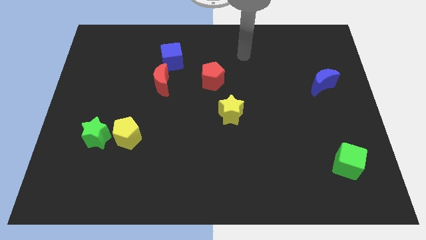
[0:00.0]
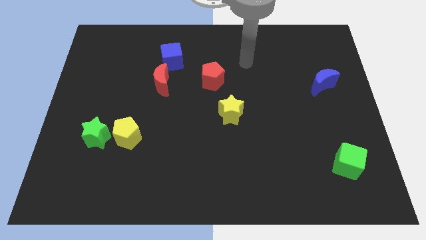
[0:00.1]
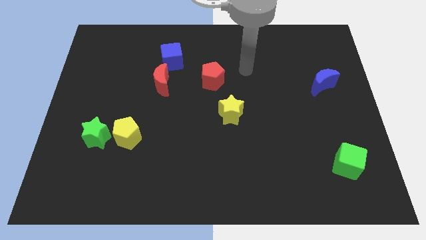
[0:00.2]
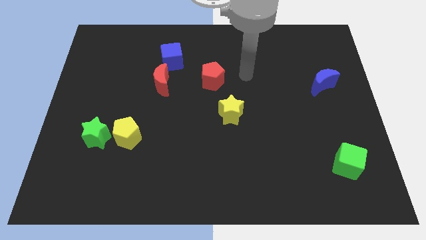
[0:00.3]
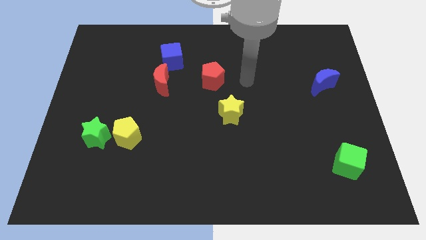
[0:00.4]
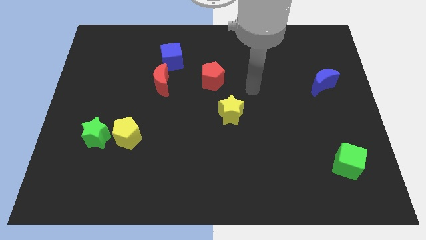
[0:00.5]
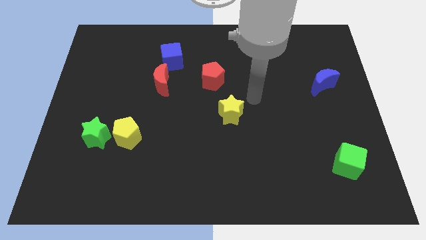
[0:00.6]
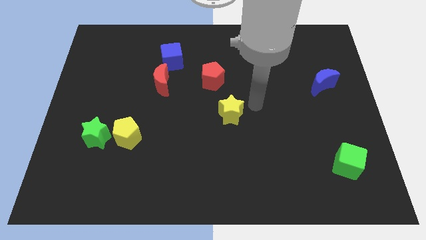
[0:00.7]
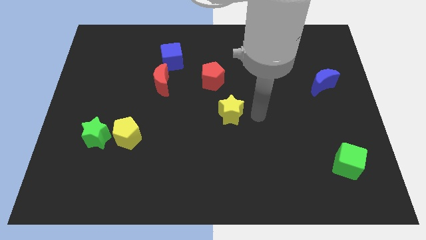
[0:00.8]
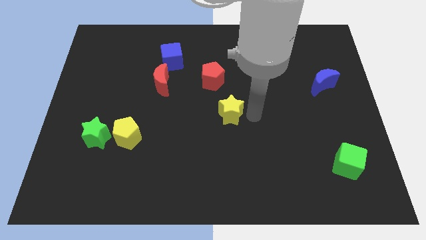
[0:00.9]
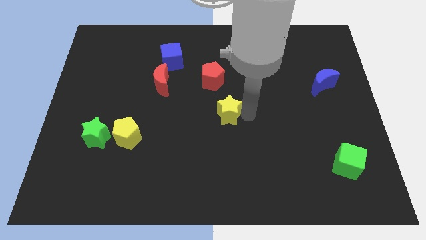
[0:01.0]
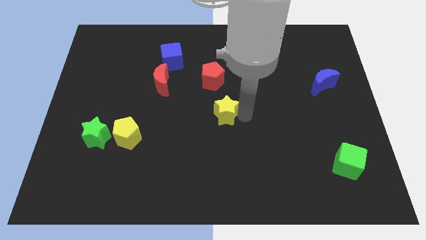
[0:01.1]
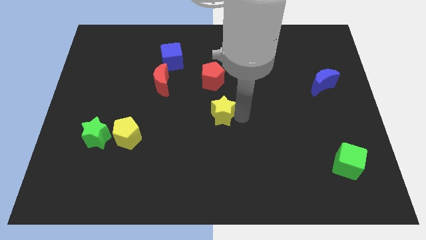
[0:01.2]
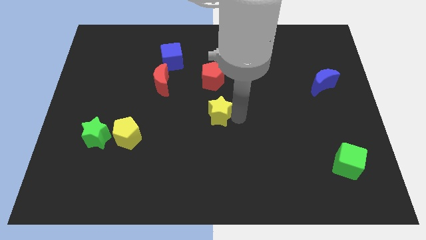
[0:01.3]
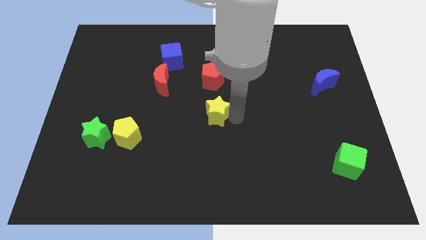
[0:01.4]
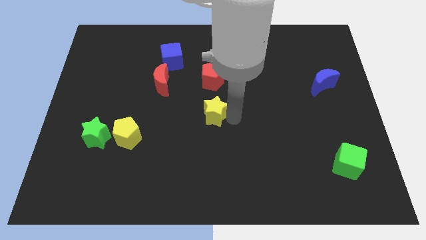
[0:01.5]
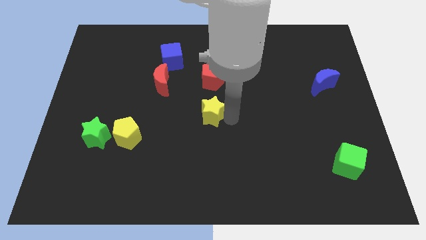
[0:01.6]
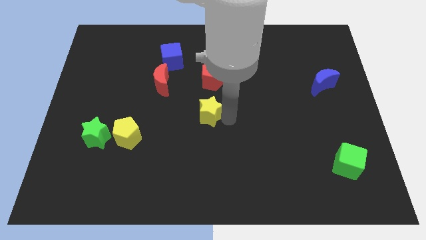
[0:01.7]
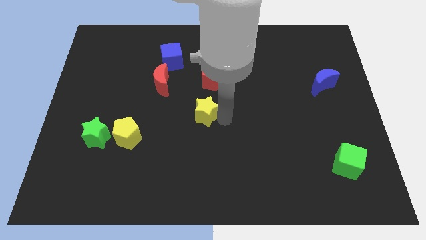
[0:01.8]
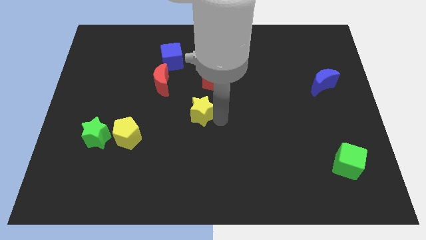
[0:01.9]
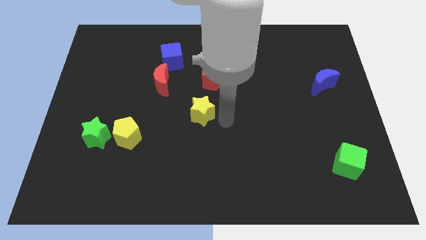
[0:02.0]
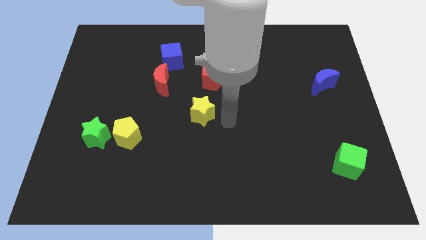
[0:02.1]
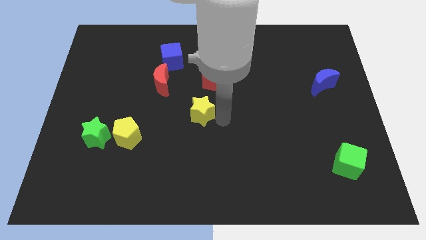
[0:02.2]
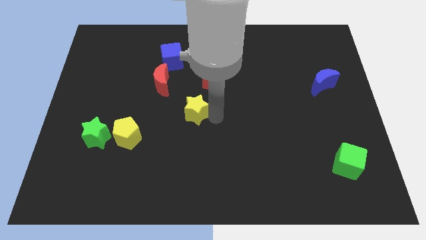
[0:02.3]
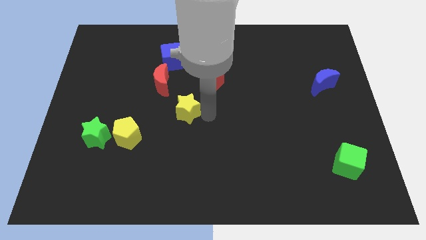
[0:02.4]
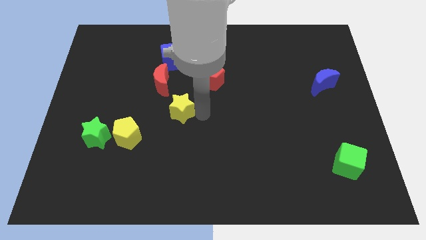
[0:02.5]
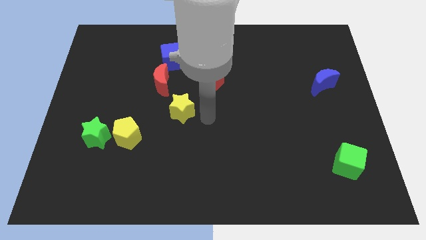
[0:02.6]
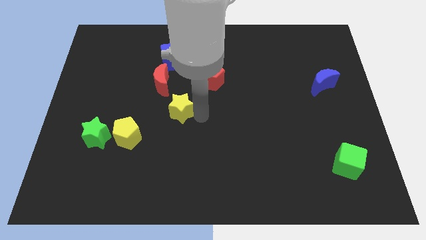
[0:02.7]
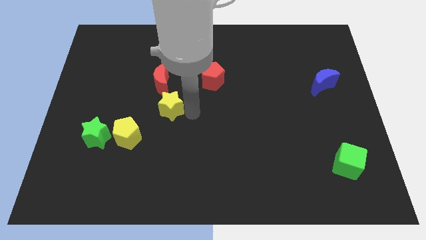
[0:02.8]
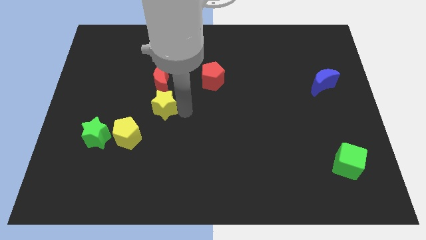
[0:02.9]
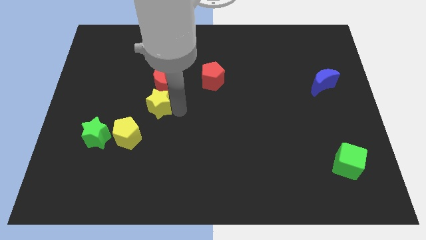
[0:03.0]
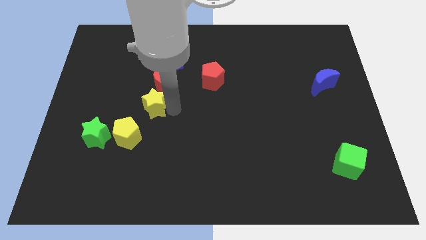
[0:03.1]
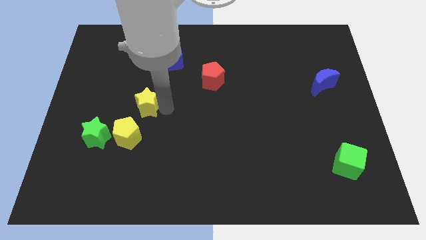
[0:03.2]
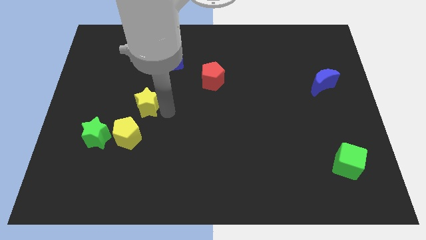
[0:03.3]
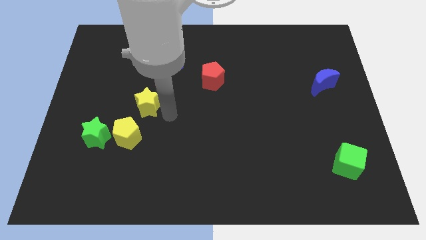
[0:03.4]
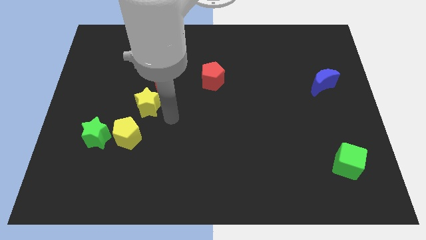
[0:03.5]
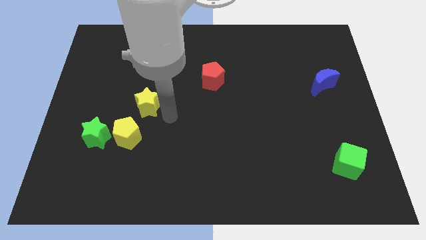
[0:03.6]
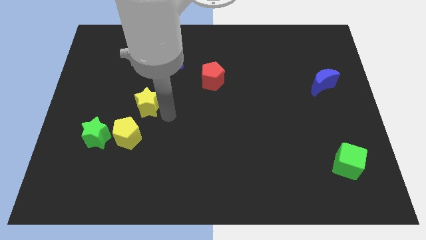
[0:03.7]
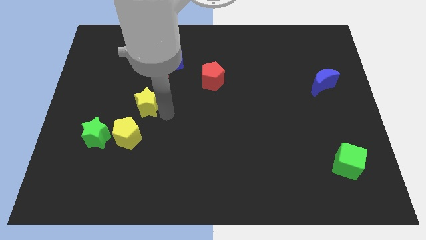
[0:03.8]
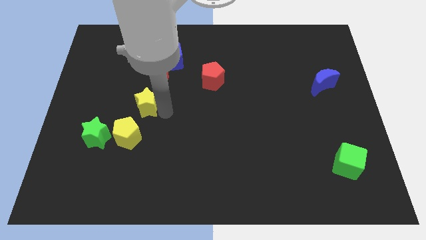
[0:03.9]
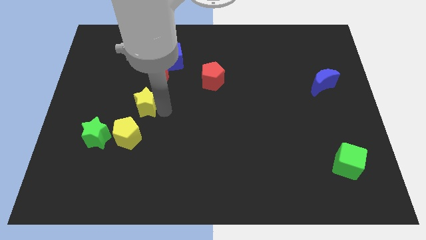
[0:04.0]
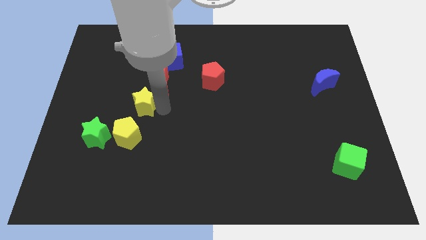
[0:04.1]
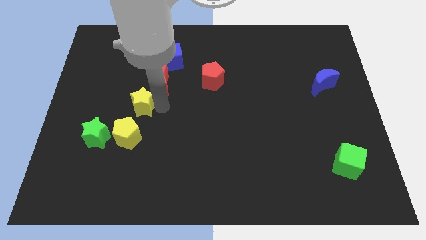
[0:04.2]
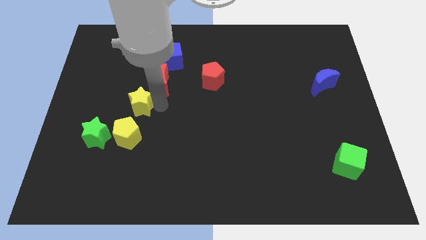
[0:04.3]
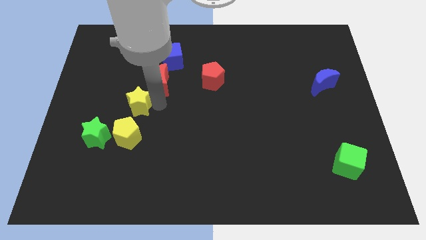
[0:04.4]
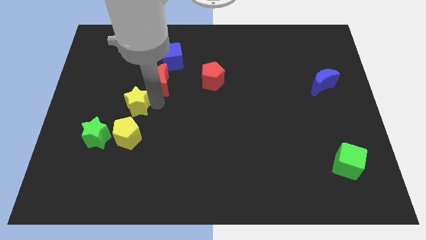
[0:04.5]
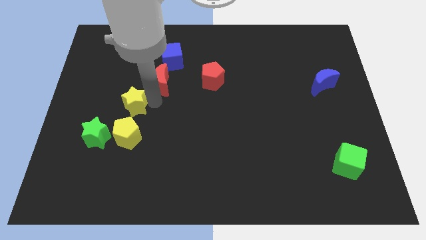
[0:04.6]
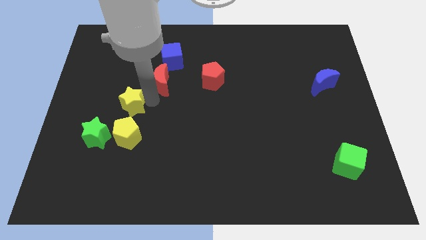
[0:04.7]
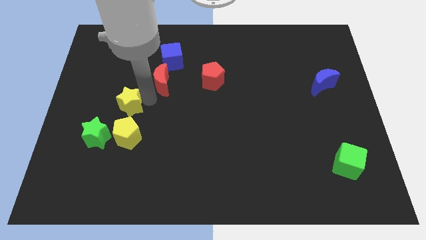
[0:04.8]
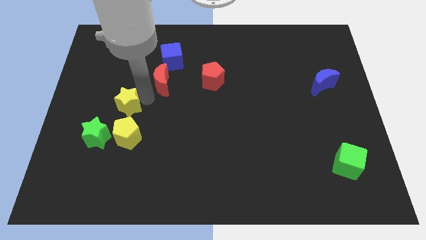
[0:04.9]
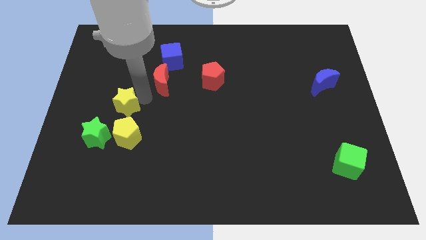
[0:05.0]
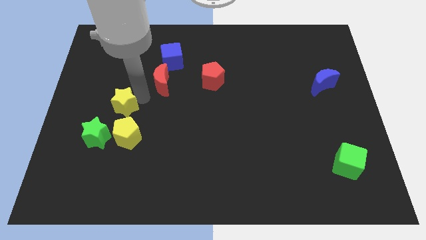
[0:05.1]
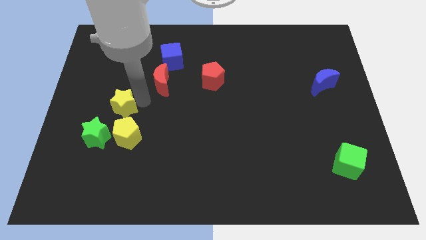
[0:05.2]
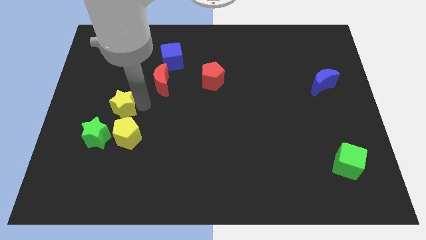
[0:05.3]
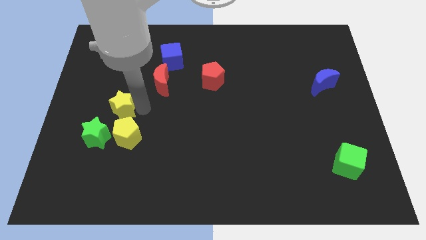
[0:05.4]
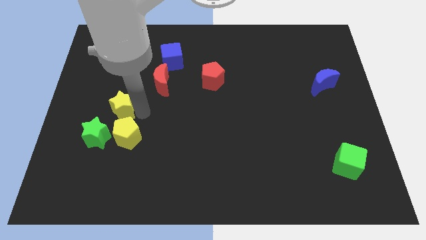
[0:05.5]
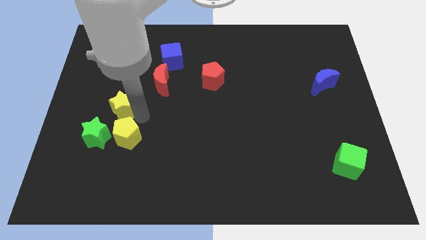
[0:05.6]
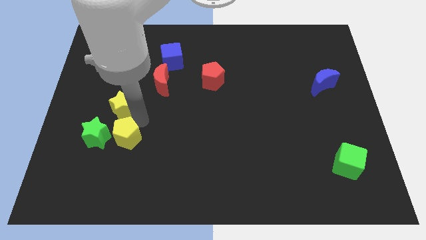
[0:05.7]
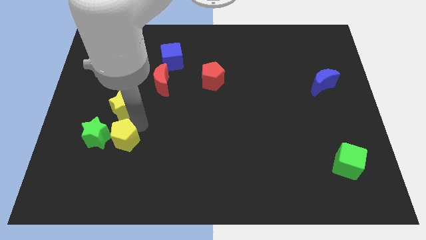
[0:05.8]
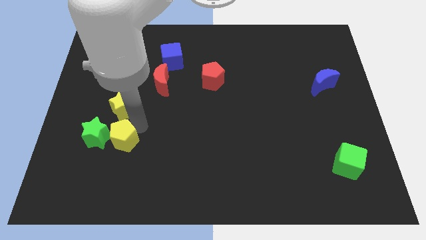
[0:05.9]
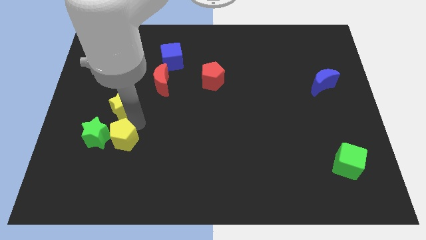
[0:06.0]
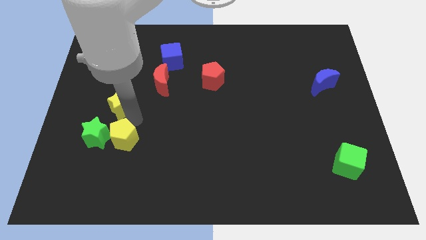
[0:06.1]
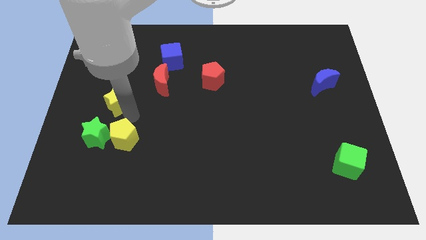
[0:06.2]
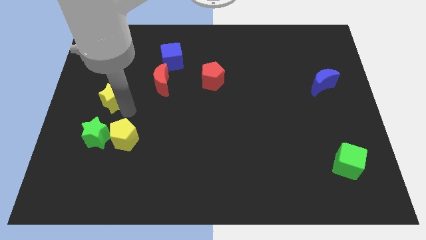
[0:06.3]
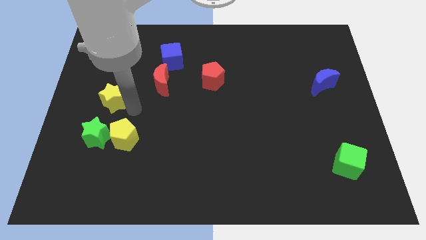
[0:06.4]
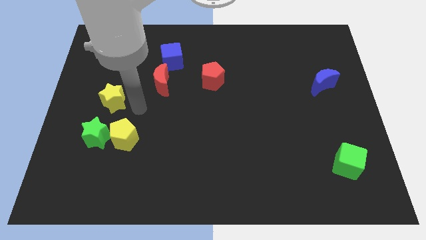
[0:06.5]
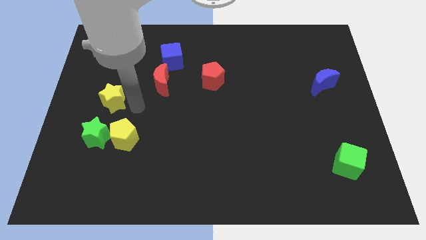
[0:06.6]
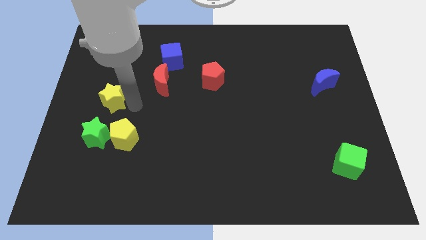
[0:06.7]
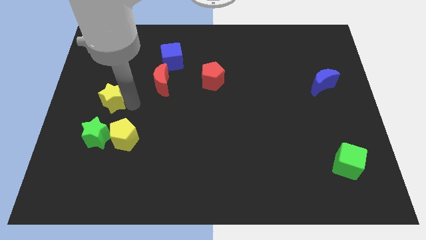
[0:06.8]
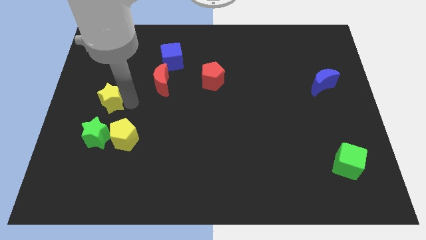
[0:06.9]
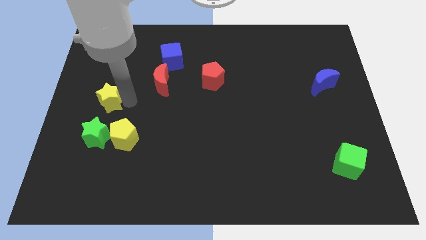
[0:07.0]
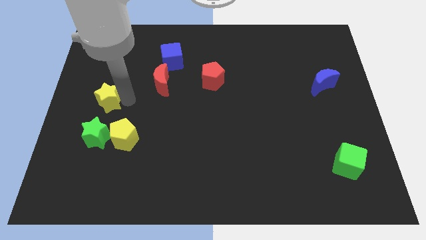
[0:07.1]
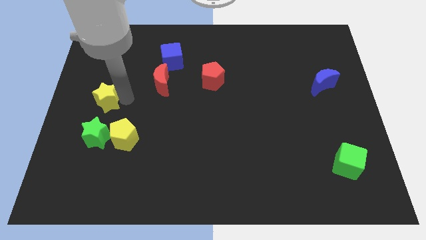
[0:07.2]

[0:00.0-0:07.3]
push the yellow star to the left side of the board
